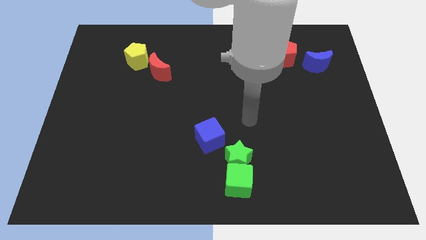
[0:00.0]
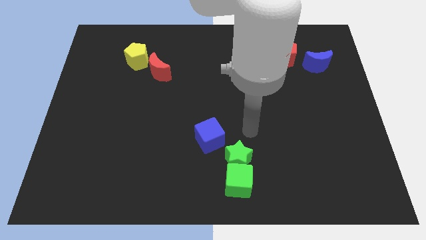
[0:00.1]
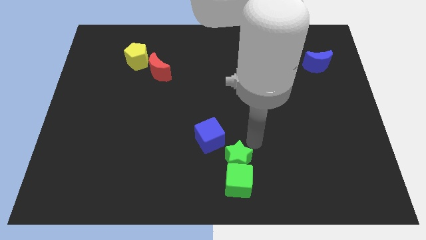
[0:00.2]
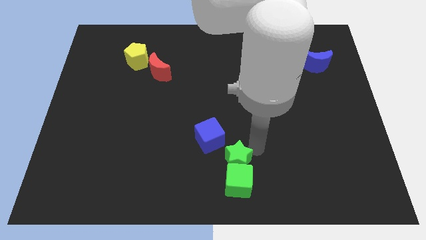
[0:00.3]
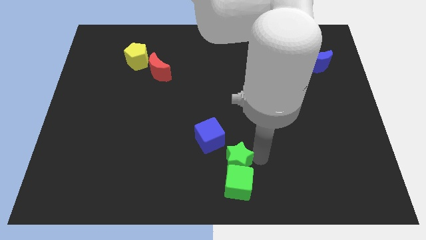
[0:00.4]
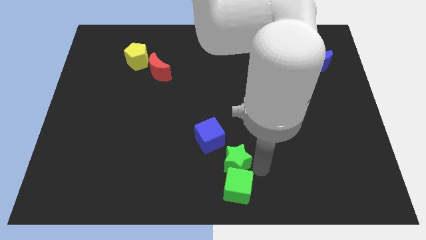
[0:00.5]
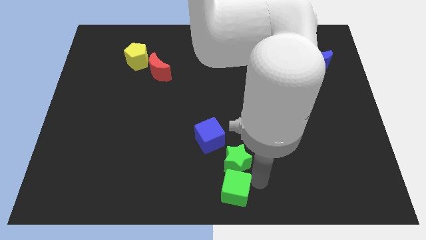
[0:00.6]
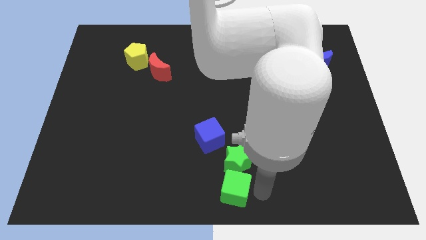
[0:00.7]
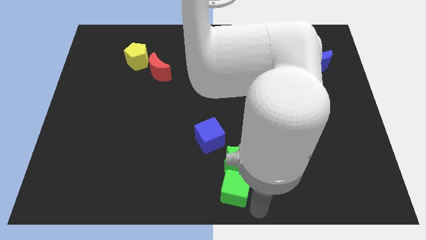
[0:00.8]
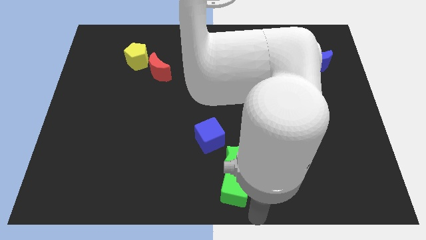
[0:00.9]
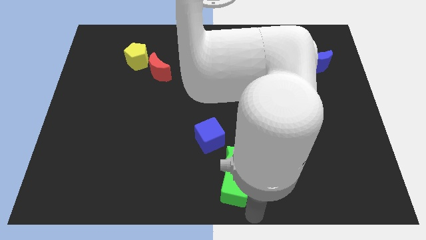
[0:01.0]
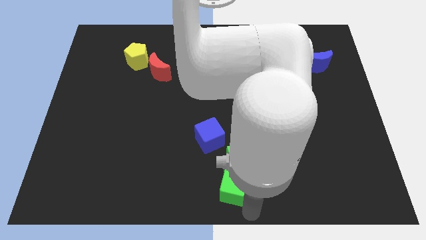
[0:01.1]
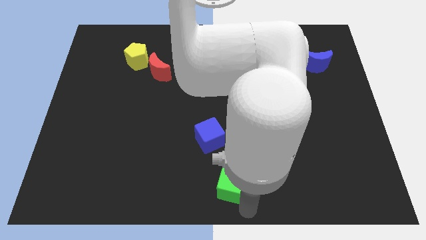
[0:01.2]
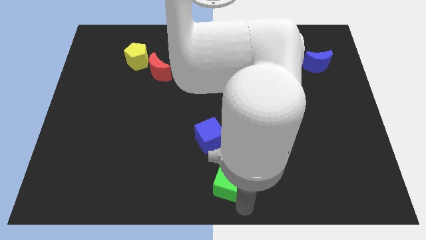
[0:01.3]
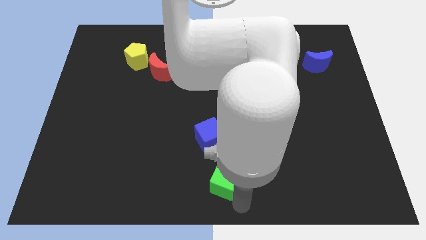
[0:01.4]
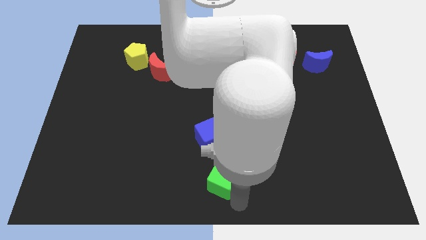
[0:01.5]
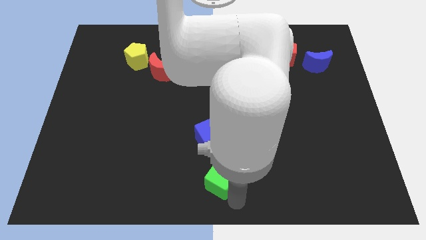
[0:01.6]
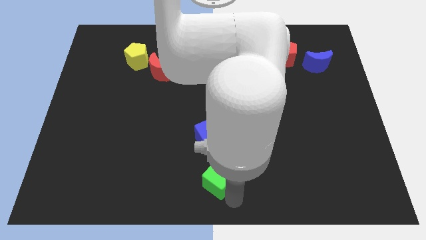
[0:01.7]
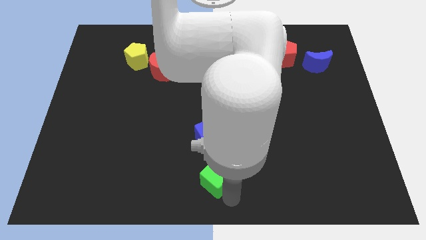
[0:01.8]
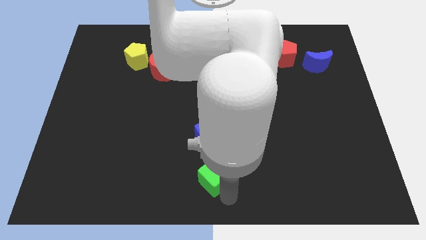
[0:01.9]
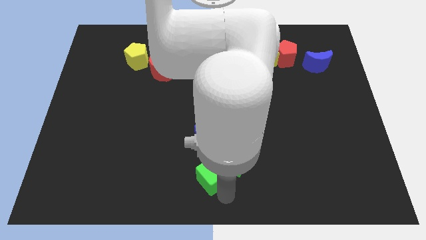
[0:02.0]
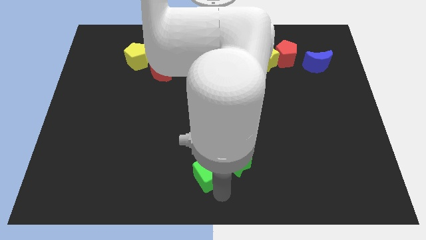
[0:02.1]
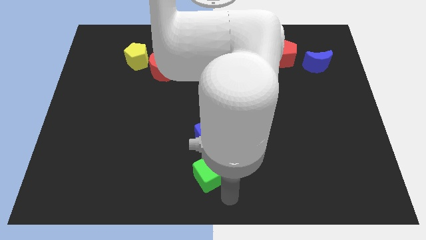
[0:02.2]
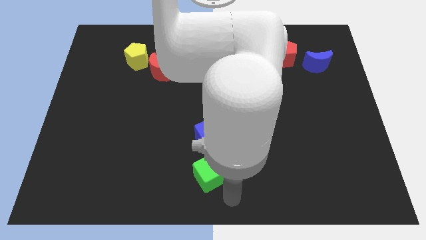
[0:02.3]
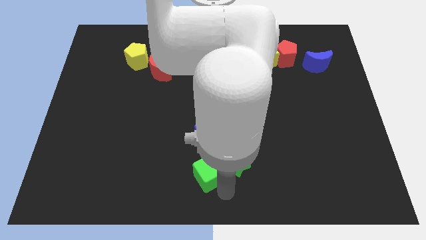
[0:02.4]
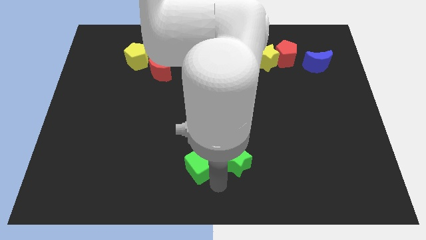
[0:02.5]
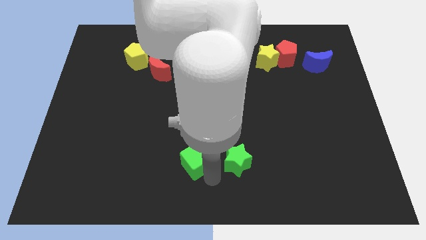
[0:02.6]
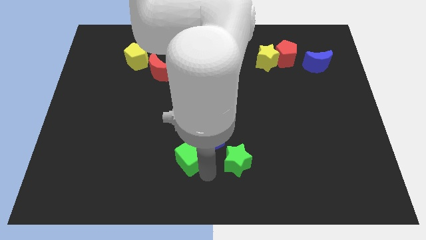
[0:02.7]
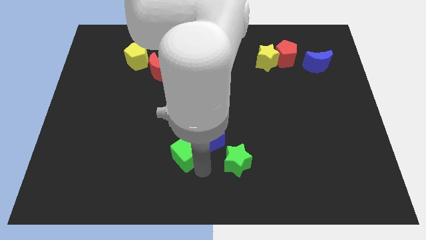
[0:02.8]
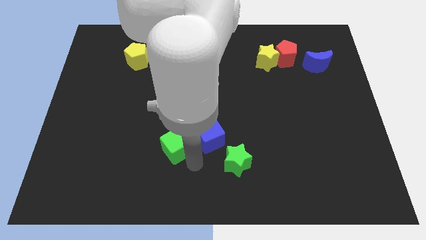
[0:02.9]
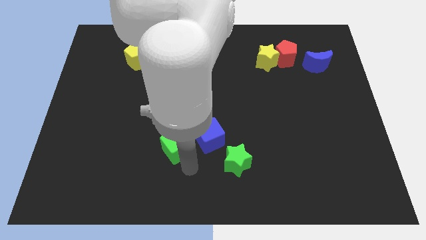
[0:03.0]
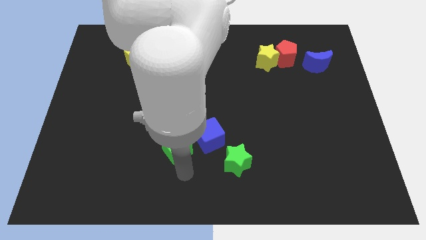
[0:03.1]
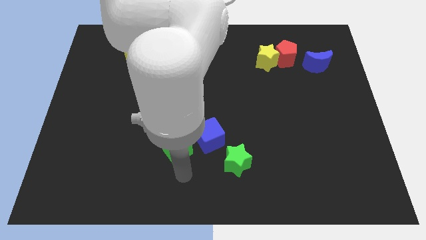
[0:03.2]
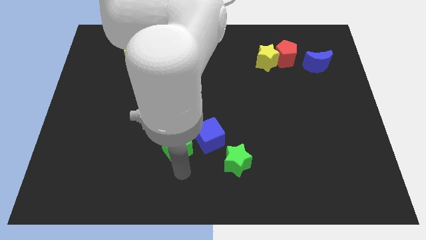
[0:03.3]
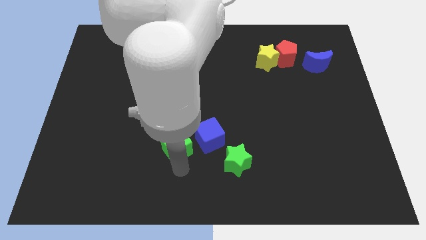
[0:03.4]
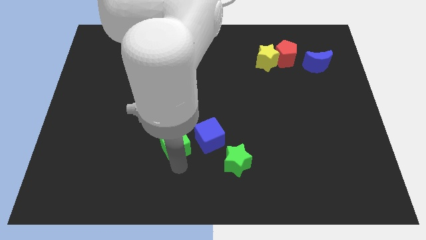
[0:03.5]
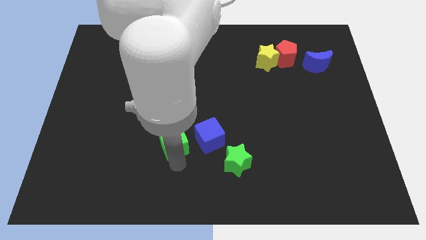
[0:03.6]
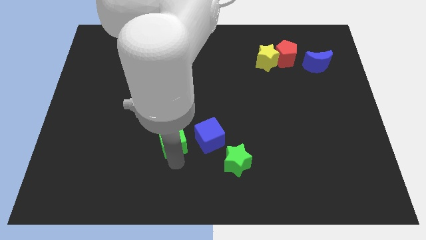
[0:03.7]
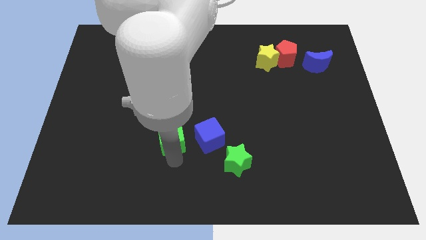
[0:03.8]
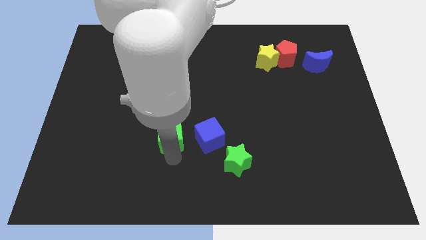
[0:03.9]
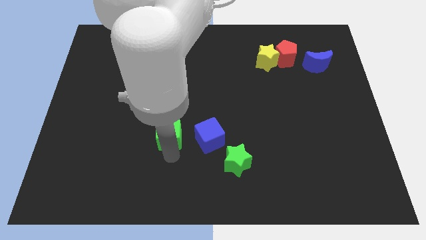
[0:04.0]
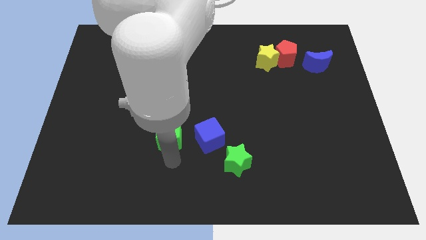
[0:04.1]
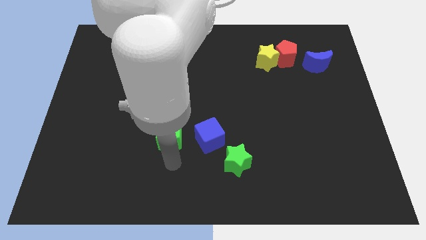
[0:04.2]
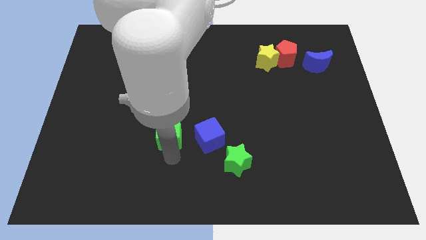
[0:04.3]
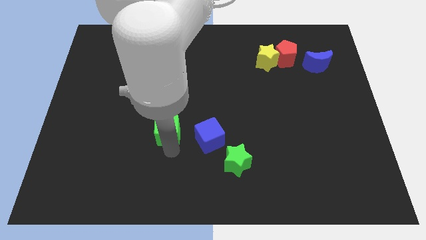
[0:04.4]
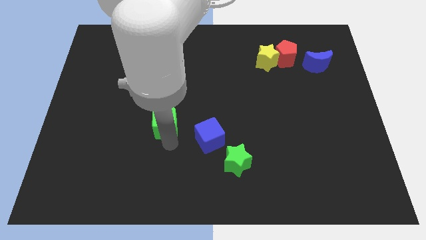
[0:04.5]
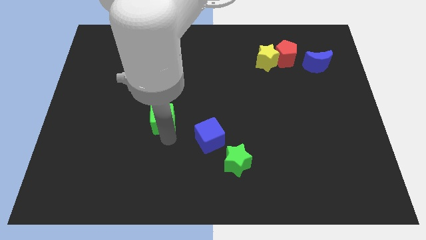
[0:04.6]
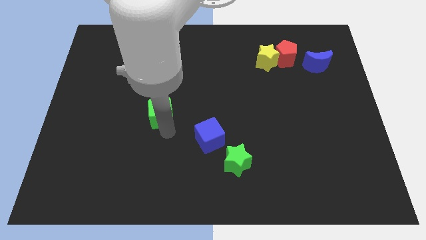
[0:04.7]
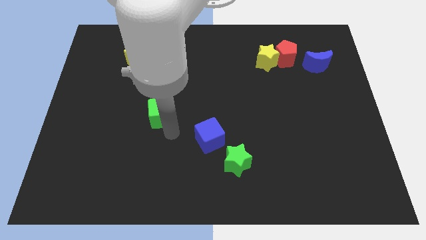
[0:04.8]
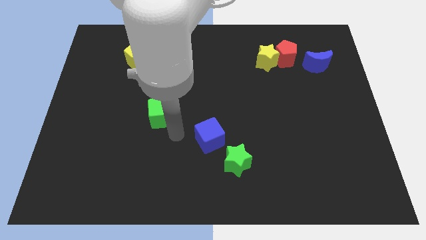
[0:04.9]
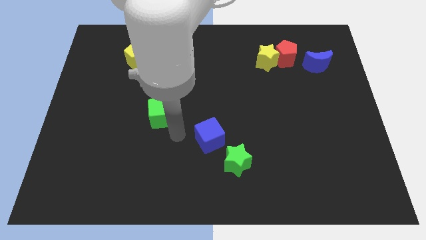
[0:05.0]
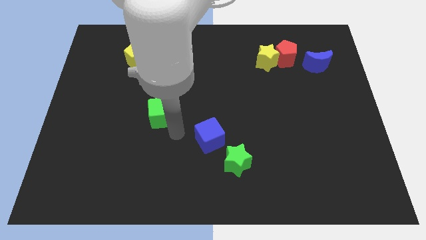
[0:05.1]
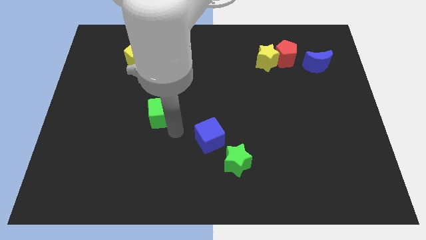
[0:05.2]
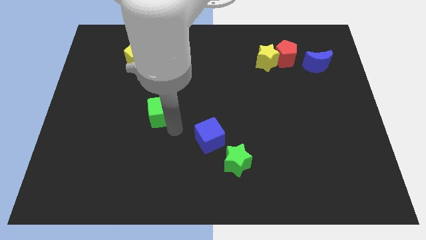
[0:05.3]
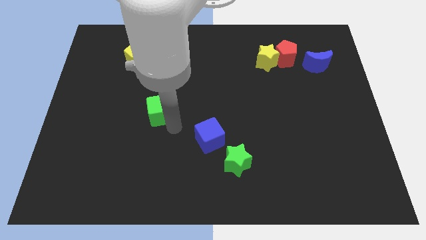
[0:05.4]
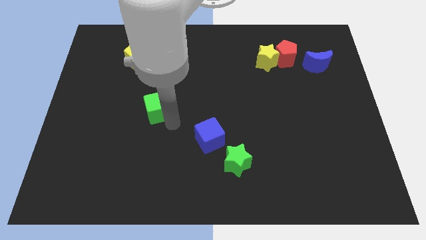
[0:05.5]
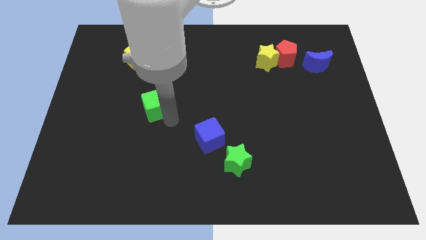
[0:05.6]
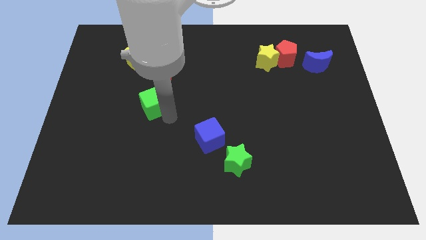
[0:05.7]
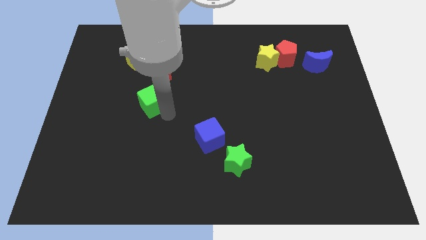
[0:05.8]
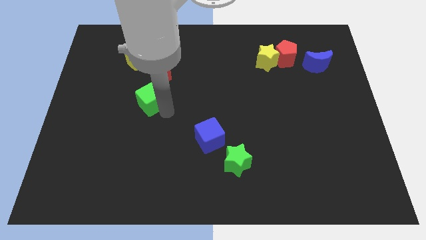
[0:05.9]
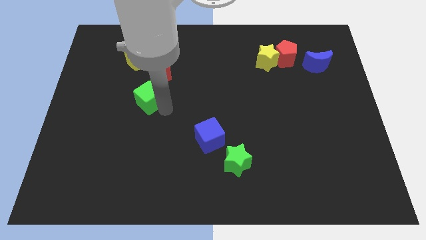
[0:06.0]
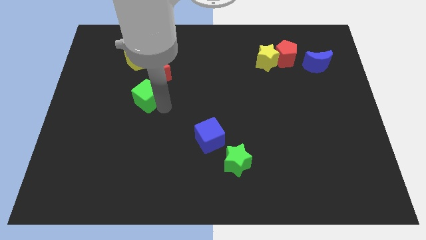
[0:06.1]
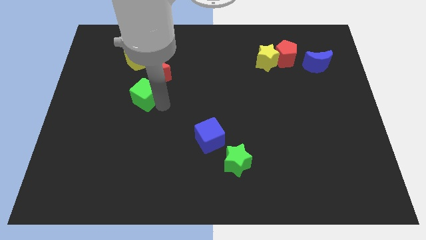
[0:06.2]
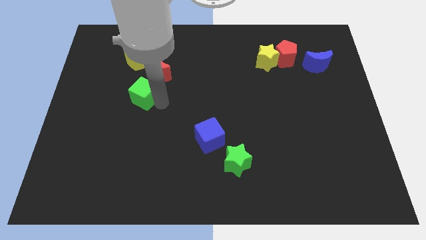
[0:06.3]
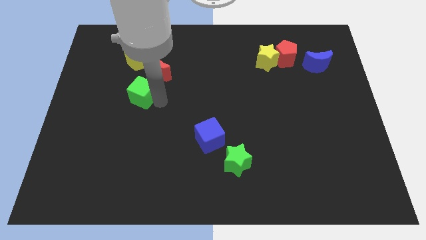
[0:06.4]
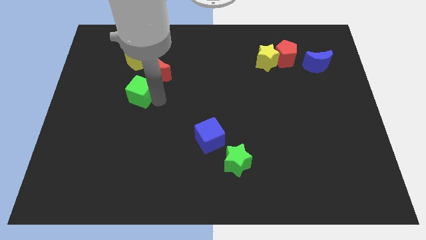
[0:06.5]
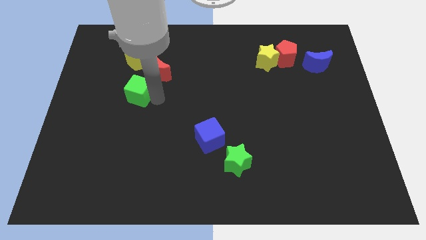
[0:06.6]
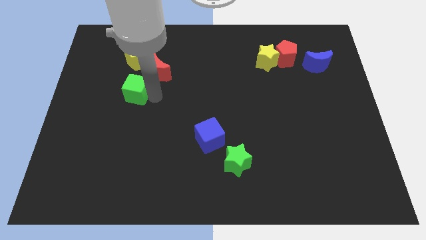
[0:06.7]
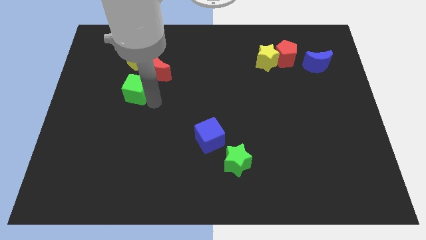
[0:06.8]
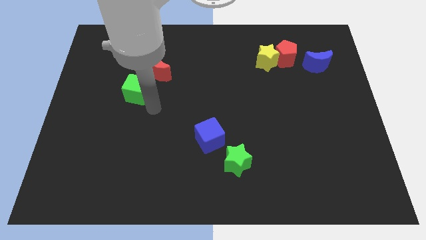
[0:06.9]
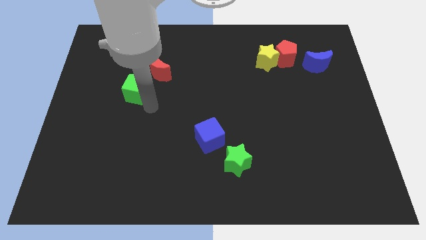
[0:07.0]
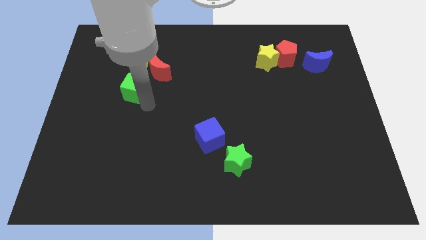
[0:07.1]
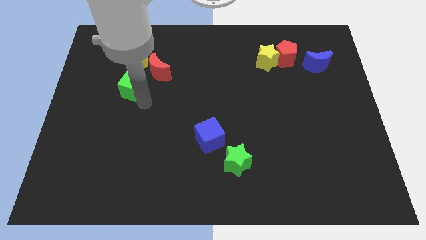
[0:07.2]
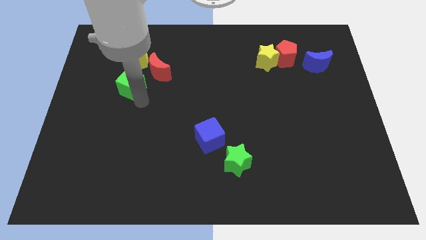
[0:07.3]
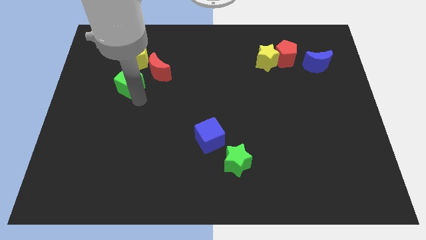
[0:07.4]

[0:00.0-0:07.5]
move the green cube left of the red moon
